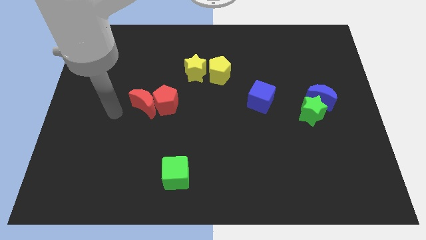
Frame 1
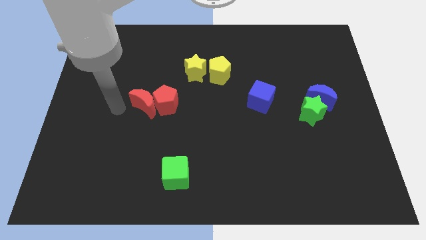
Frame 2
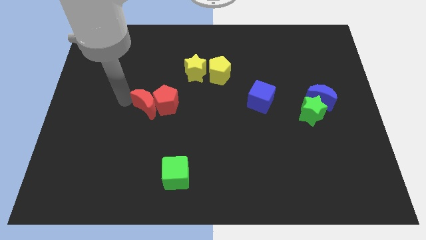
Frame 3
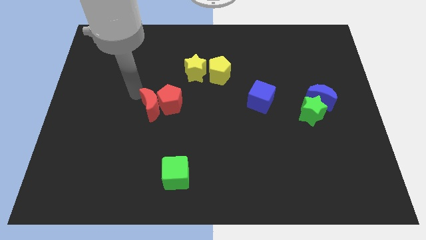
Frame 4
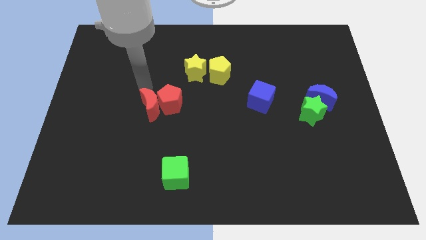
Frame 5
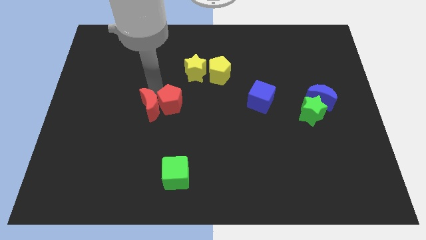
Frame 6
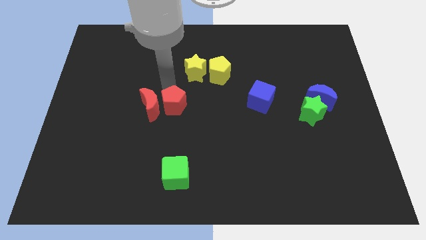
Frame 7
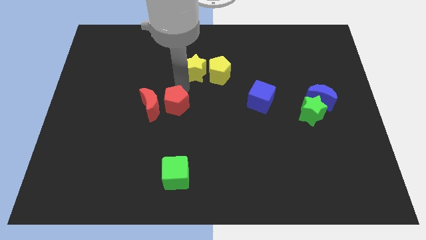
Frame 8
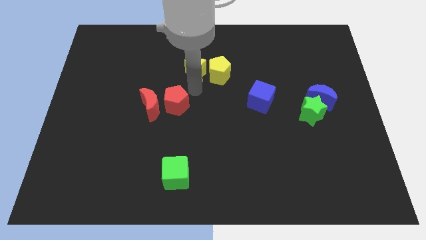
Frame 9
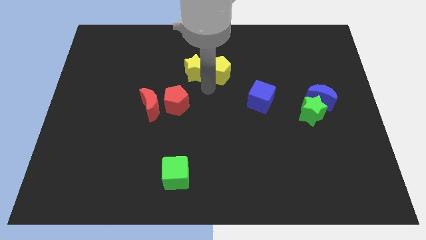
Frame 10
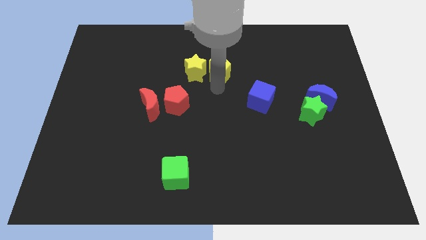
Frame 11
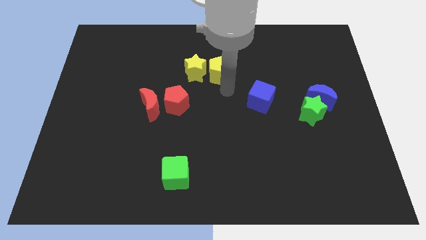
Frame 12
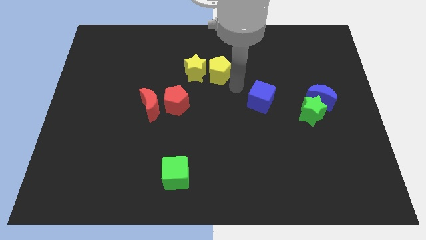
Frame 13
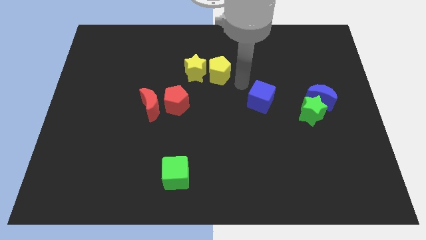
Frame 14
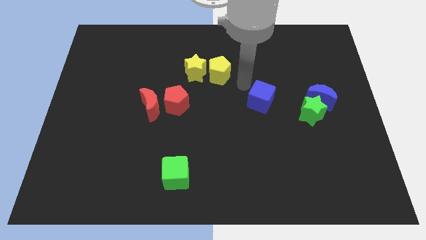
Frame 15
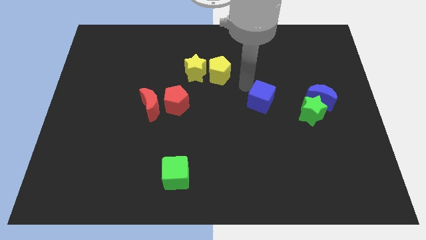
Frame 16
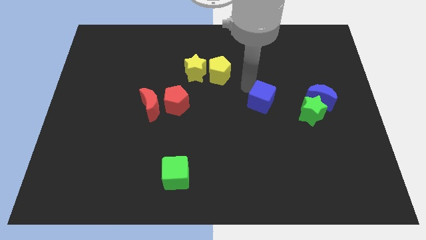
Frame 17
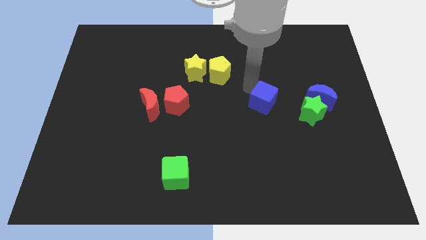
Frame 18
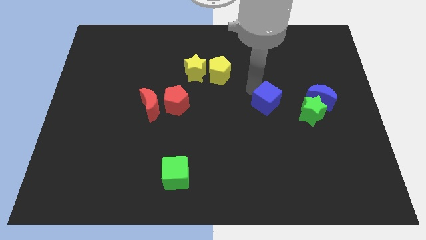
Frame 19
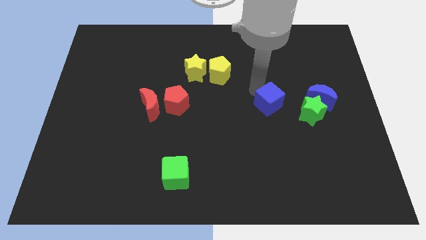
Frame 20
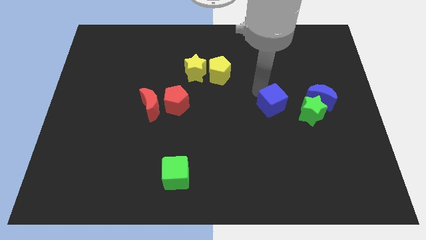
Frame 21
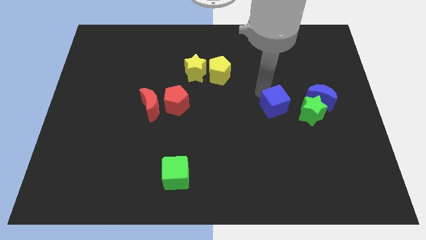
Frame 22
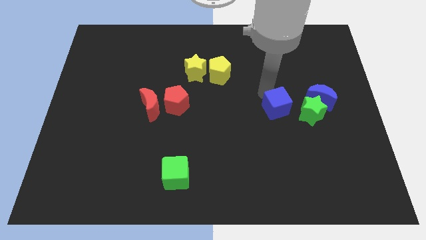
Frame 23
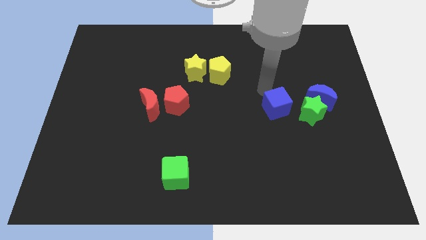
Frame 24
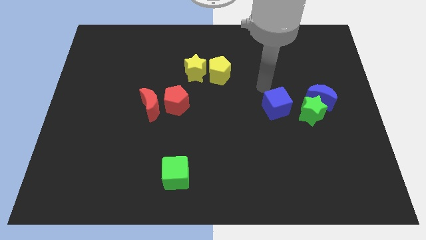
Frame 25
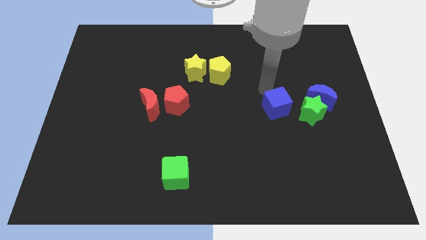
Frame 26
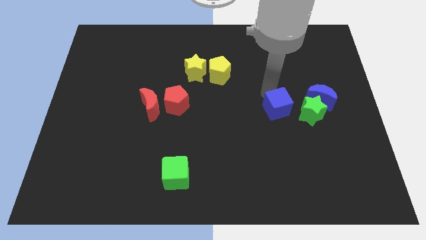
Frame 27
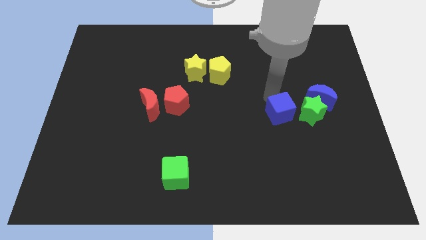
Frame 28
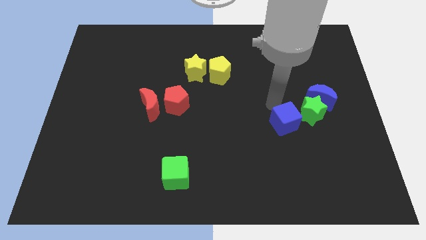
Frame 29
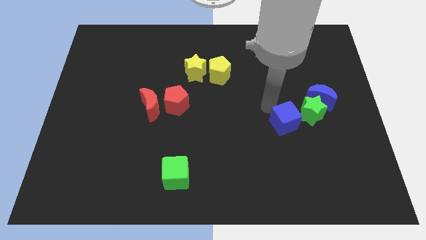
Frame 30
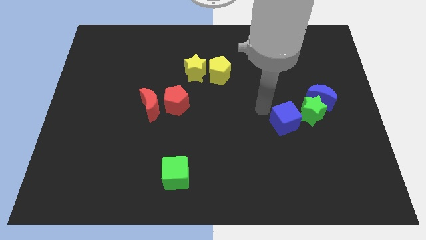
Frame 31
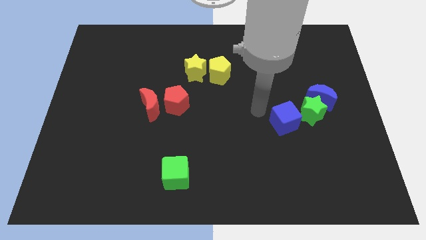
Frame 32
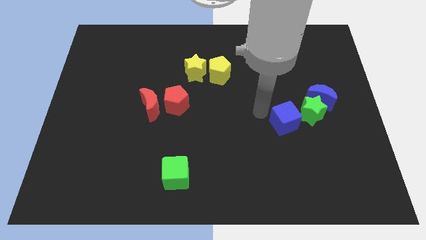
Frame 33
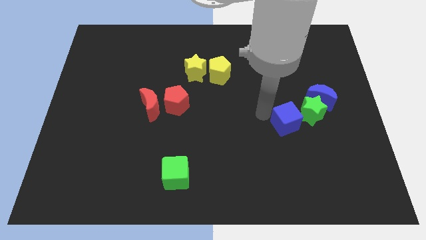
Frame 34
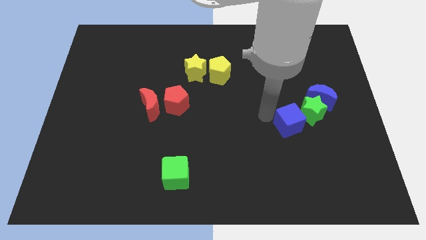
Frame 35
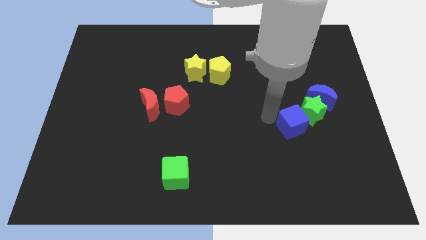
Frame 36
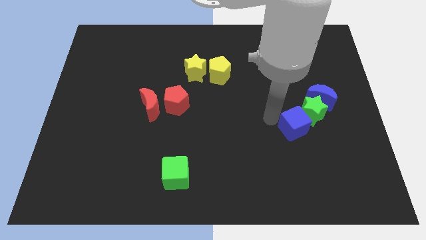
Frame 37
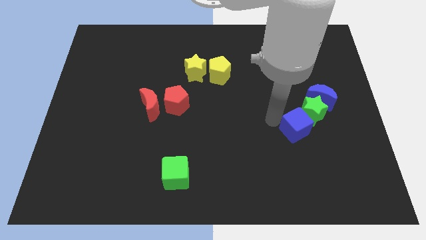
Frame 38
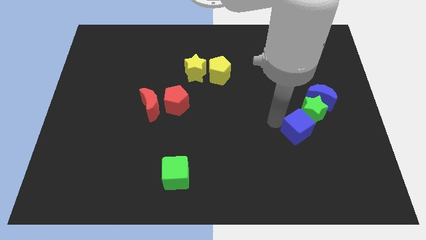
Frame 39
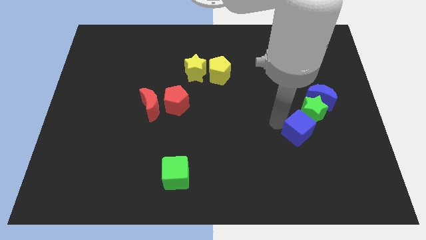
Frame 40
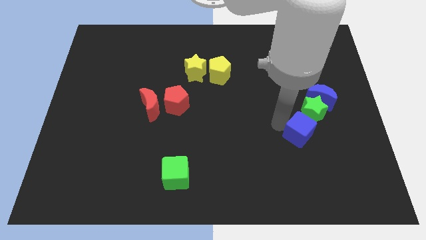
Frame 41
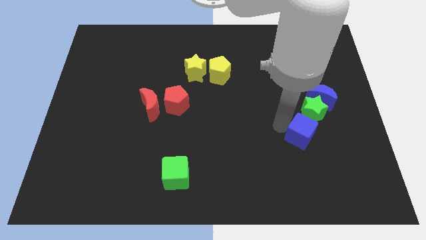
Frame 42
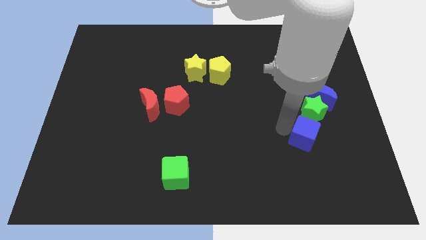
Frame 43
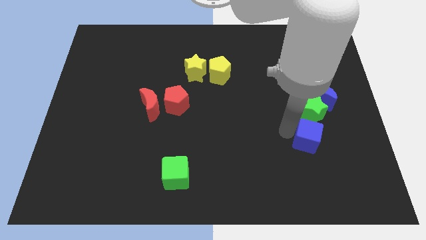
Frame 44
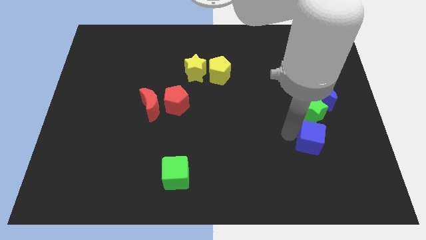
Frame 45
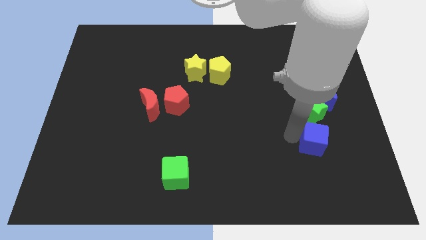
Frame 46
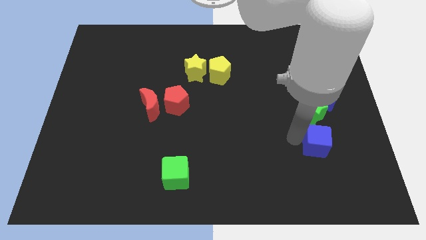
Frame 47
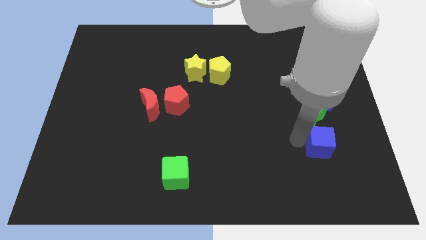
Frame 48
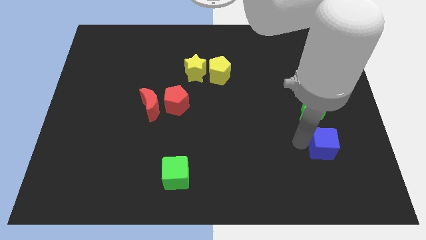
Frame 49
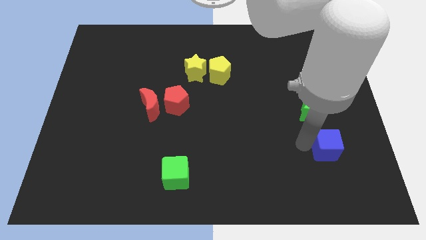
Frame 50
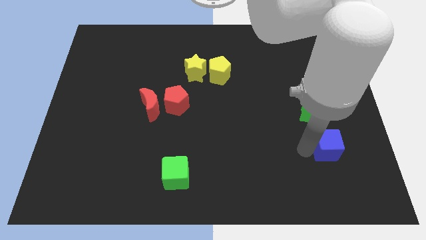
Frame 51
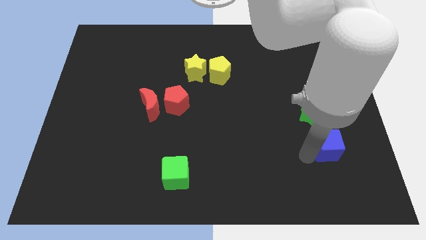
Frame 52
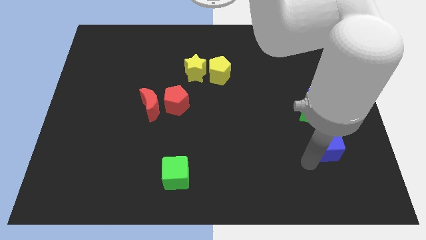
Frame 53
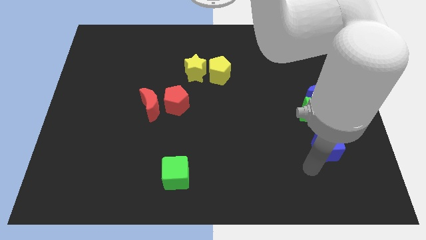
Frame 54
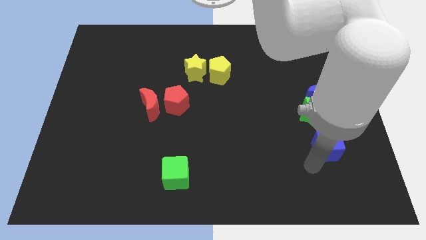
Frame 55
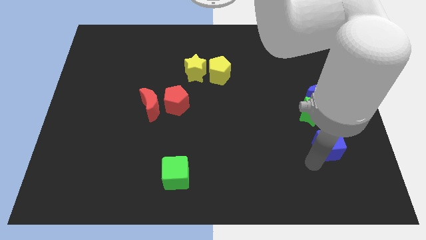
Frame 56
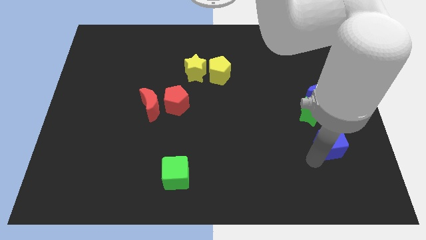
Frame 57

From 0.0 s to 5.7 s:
slide the blue cube diagonally down and to the right of the green star
